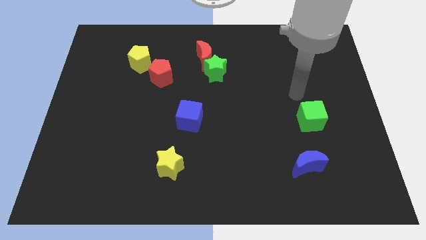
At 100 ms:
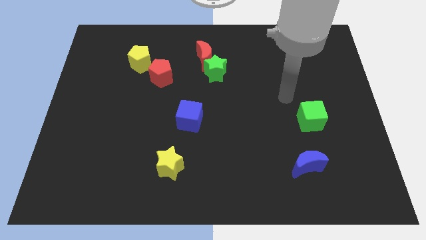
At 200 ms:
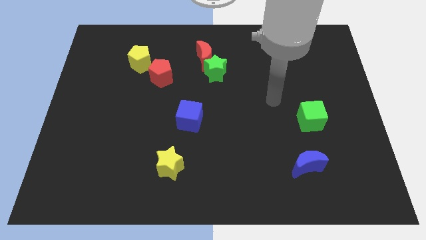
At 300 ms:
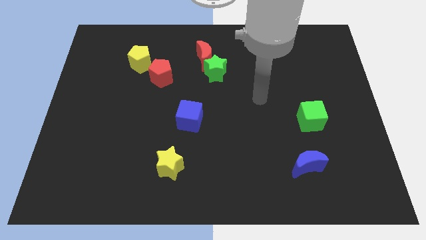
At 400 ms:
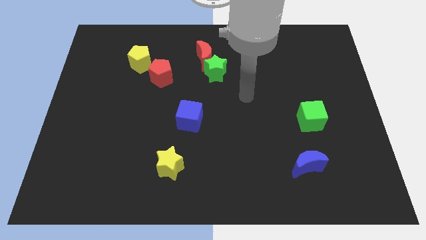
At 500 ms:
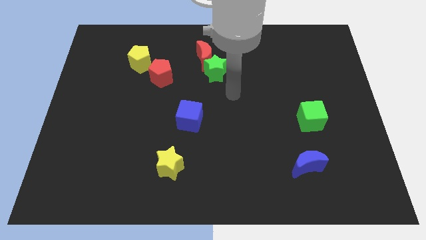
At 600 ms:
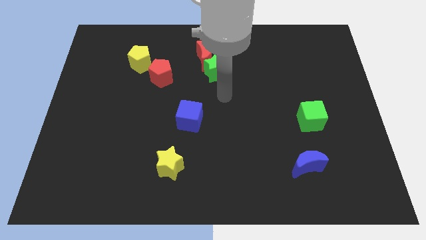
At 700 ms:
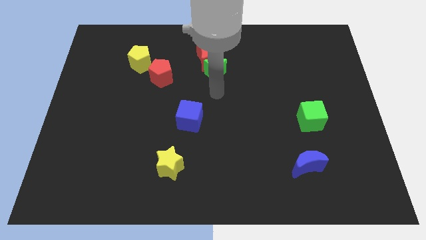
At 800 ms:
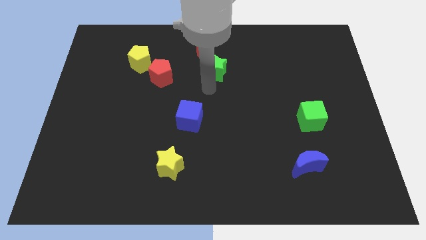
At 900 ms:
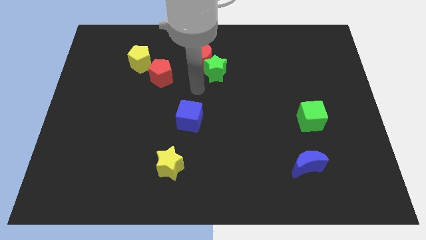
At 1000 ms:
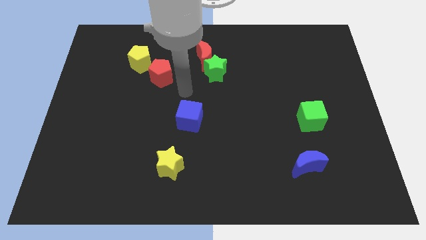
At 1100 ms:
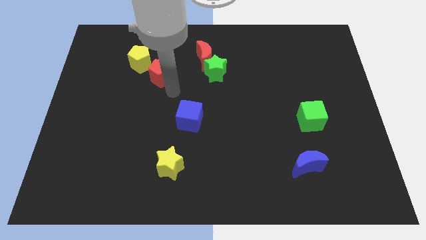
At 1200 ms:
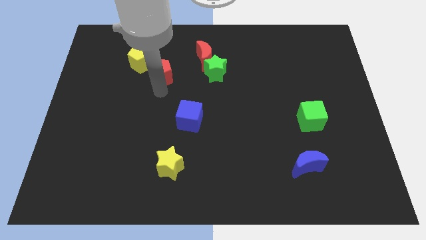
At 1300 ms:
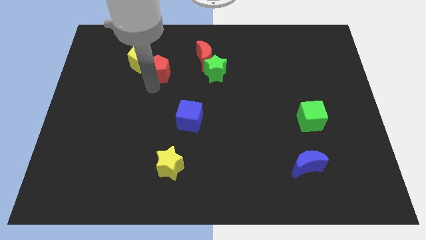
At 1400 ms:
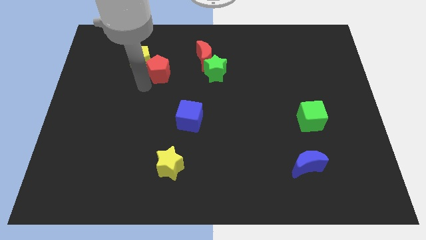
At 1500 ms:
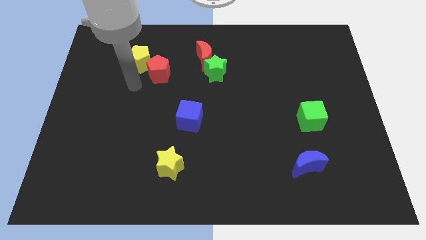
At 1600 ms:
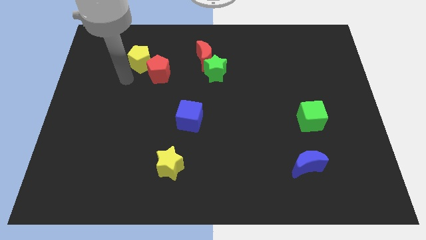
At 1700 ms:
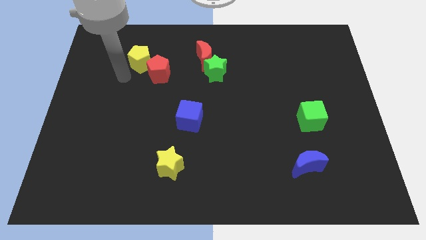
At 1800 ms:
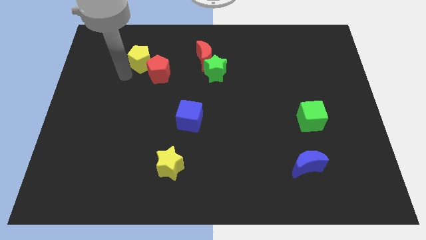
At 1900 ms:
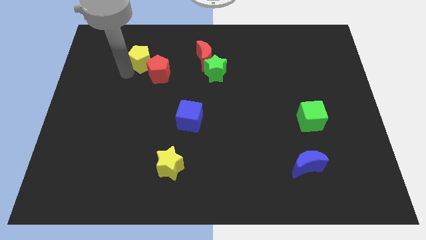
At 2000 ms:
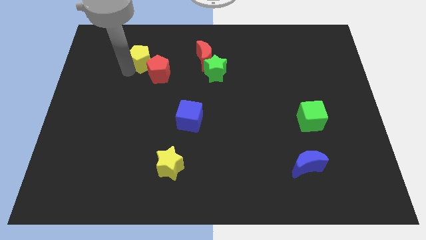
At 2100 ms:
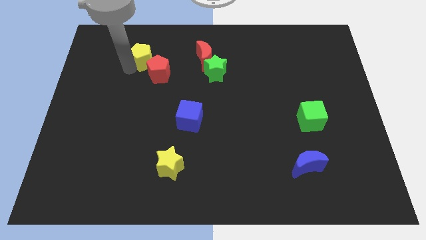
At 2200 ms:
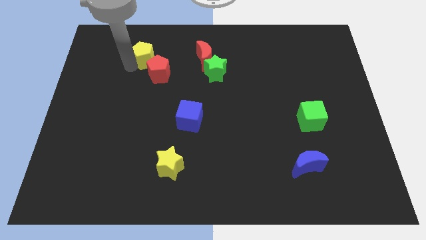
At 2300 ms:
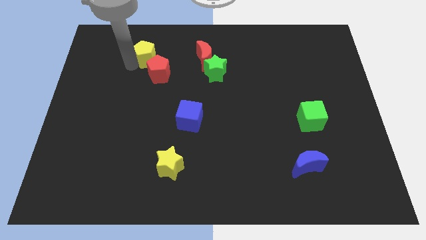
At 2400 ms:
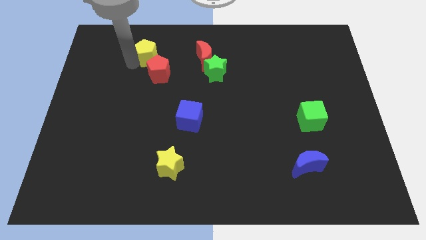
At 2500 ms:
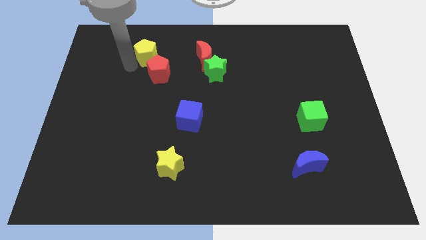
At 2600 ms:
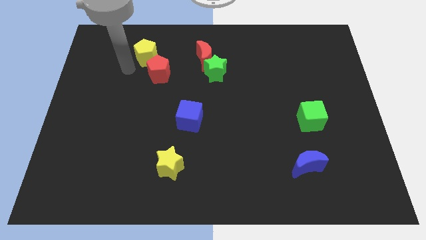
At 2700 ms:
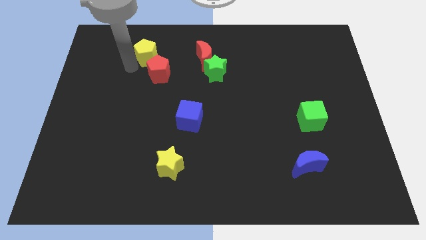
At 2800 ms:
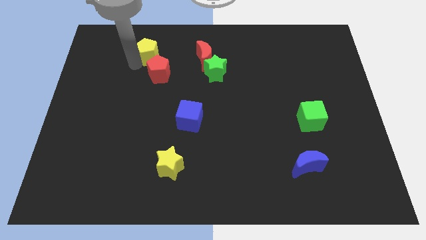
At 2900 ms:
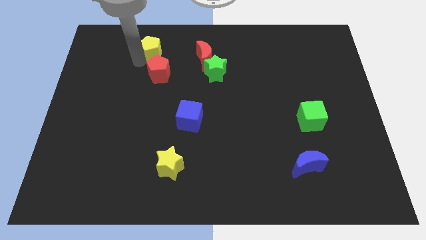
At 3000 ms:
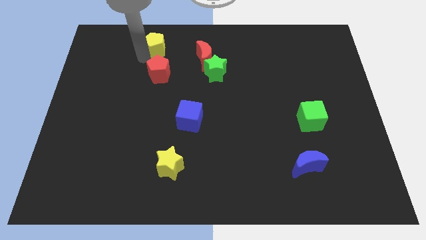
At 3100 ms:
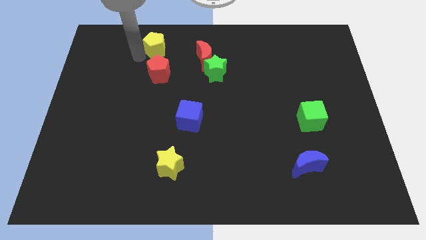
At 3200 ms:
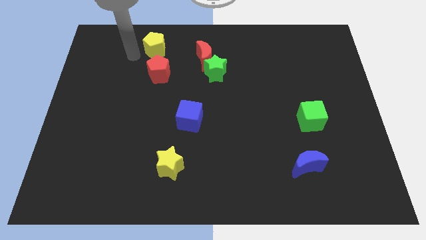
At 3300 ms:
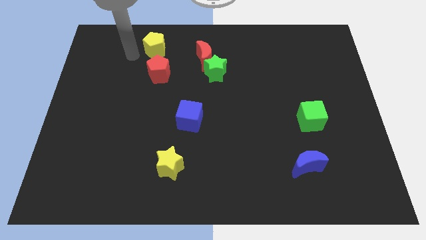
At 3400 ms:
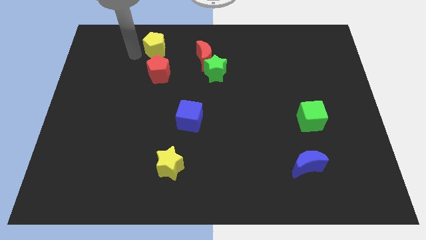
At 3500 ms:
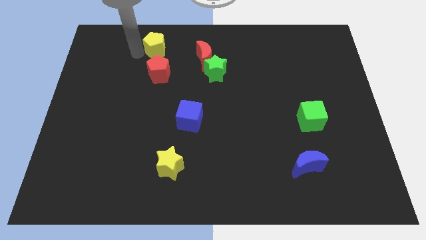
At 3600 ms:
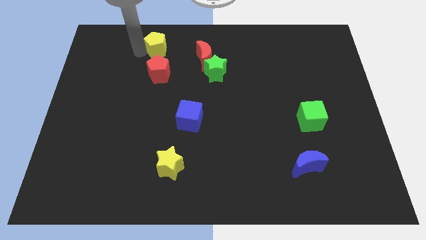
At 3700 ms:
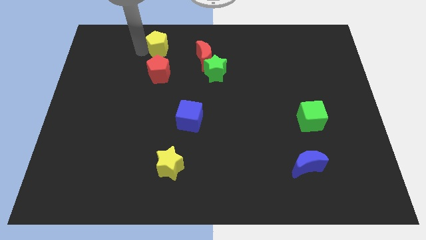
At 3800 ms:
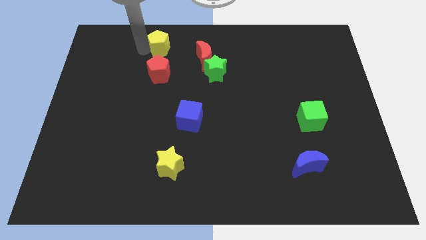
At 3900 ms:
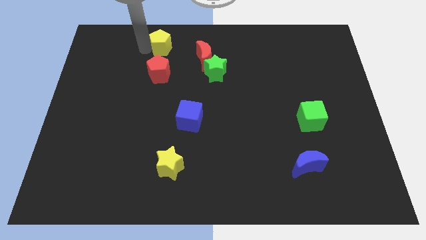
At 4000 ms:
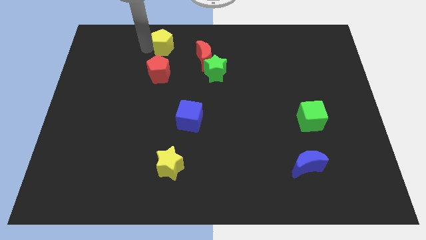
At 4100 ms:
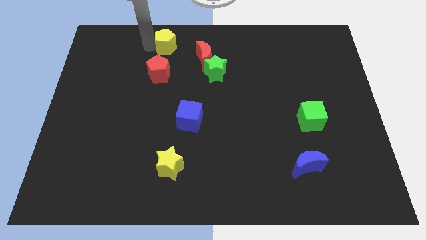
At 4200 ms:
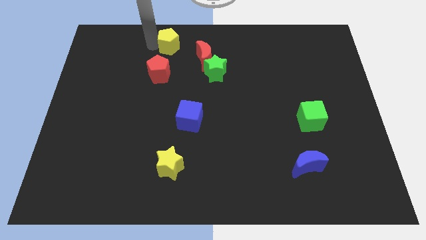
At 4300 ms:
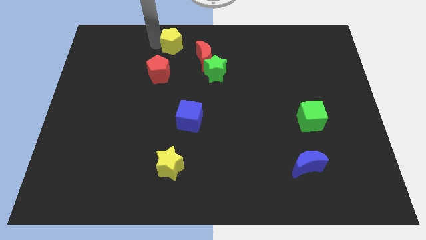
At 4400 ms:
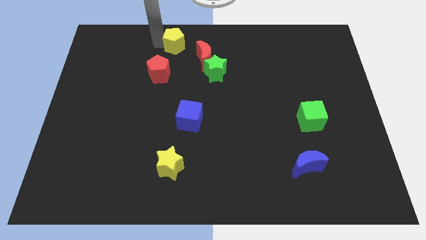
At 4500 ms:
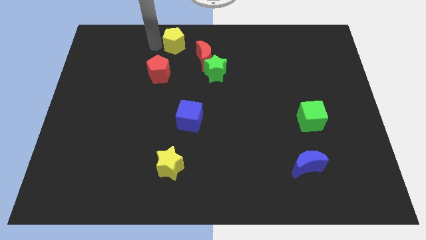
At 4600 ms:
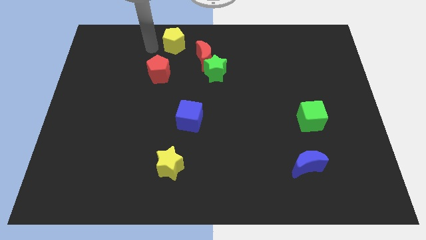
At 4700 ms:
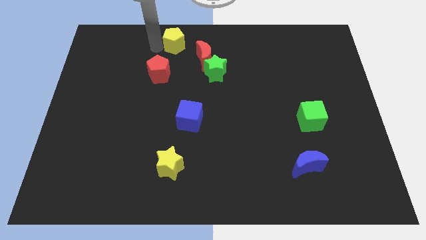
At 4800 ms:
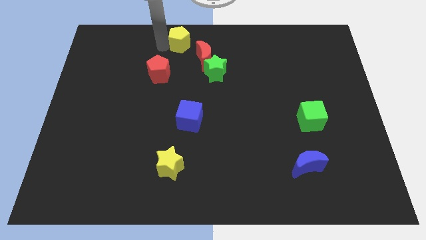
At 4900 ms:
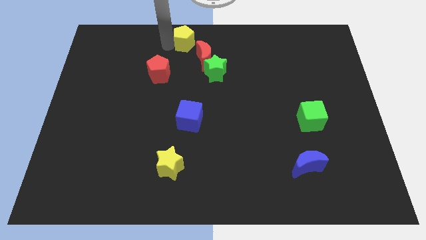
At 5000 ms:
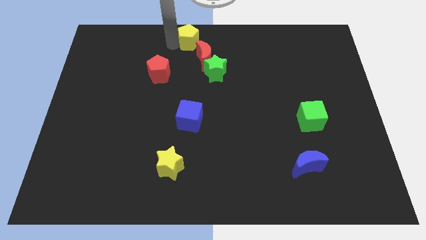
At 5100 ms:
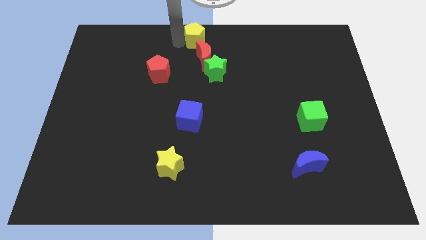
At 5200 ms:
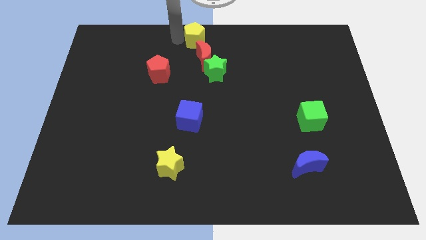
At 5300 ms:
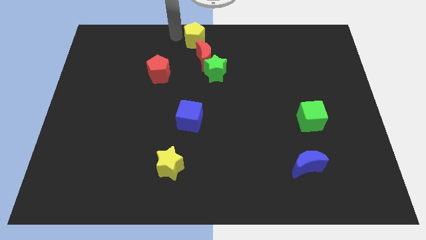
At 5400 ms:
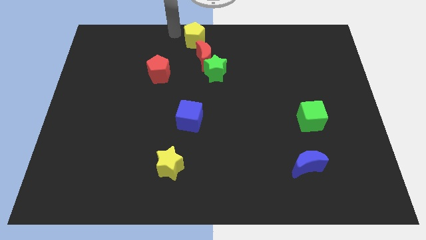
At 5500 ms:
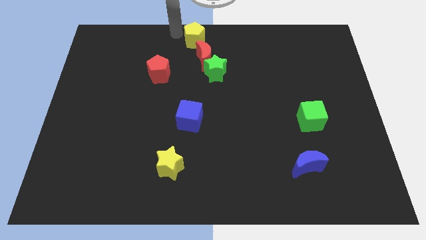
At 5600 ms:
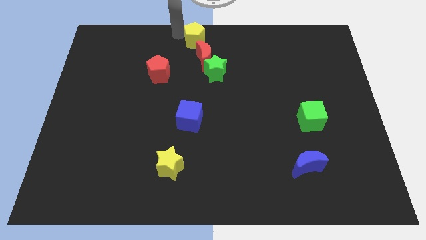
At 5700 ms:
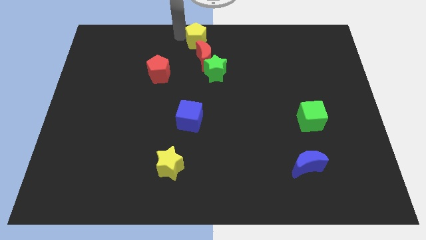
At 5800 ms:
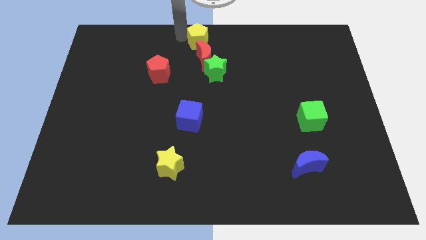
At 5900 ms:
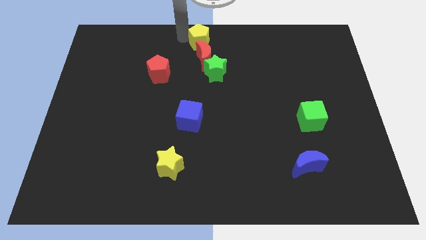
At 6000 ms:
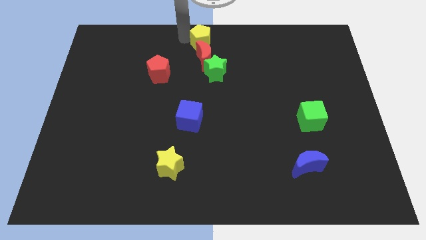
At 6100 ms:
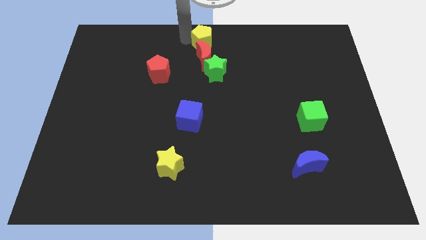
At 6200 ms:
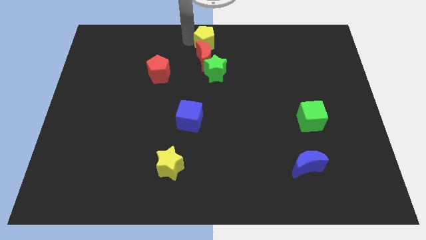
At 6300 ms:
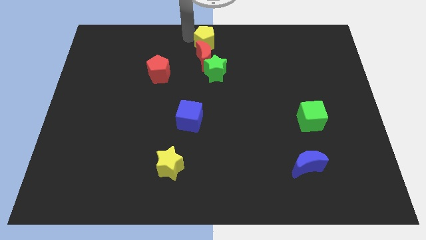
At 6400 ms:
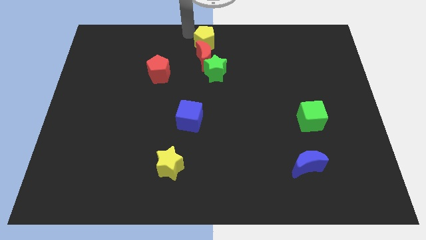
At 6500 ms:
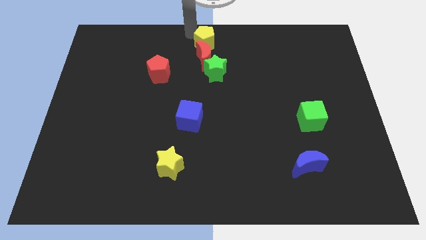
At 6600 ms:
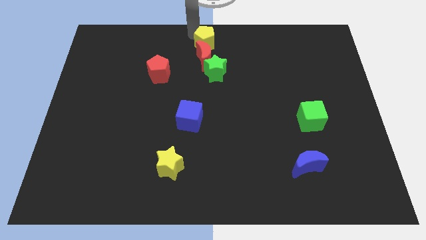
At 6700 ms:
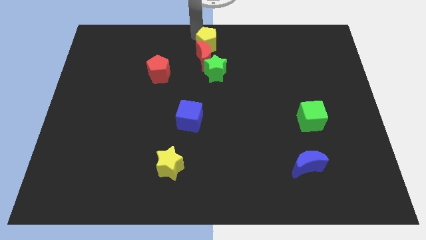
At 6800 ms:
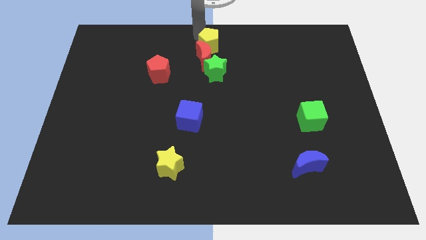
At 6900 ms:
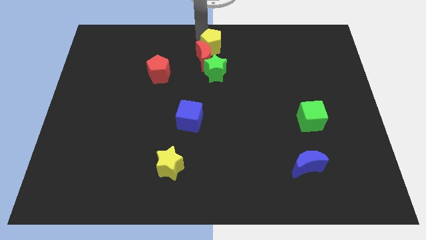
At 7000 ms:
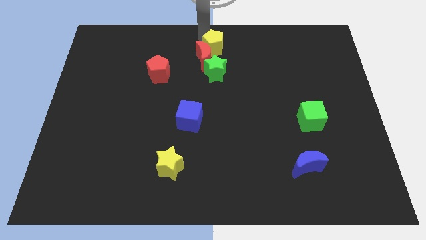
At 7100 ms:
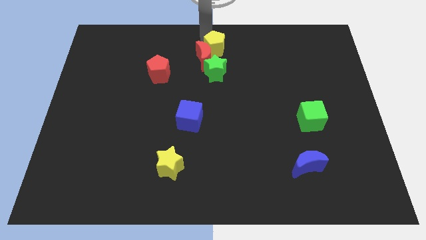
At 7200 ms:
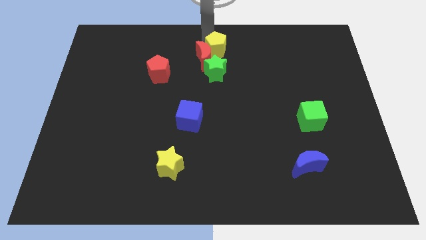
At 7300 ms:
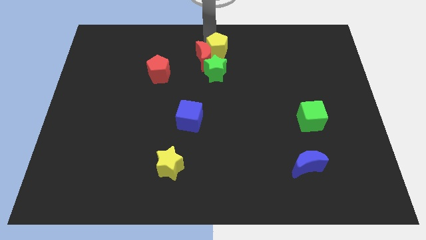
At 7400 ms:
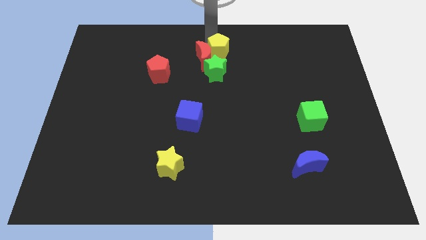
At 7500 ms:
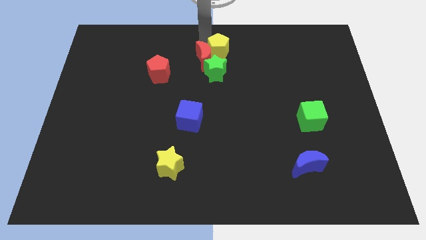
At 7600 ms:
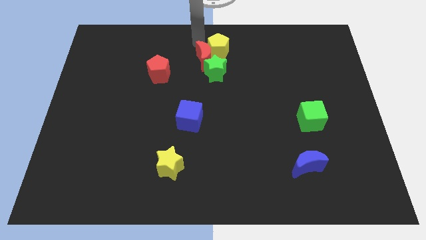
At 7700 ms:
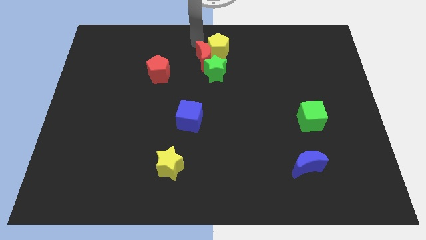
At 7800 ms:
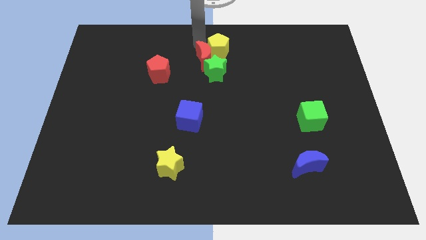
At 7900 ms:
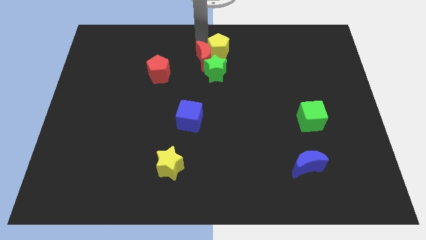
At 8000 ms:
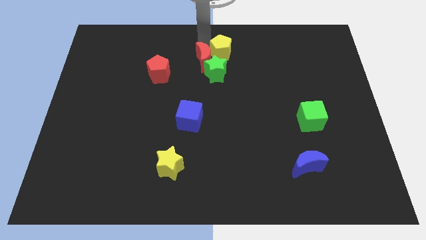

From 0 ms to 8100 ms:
slide the yellow pentagon to the right

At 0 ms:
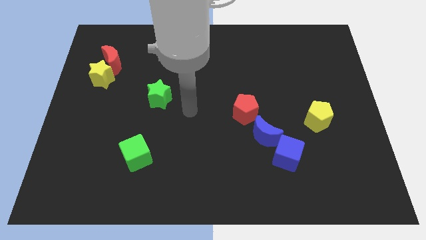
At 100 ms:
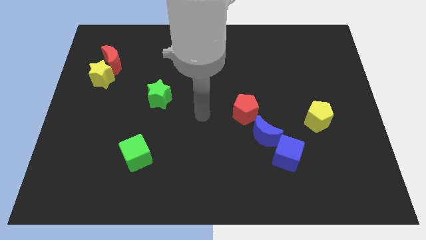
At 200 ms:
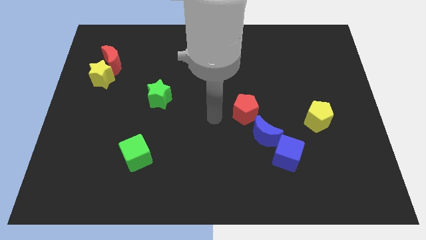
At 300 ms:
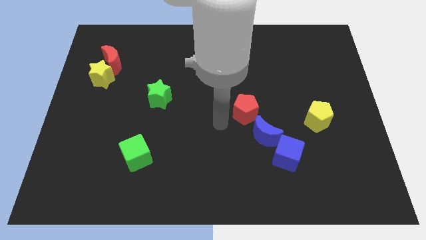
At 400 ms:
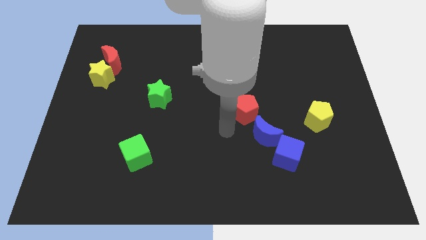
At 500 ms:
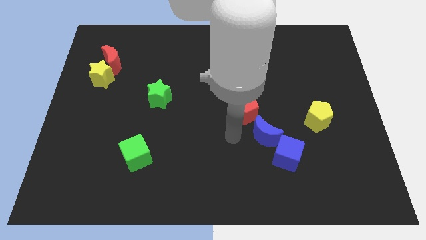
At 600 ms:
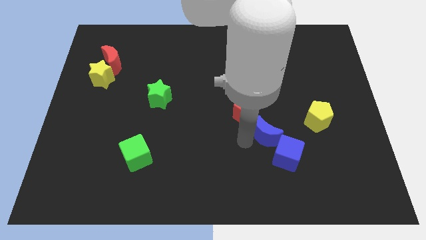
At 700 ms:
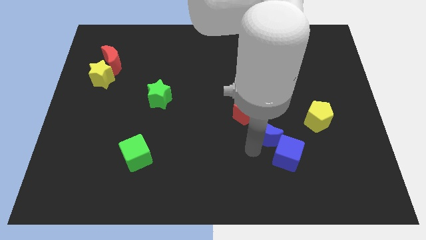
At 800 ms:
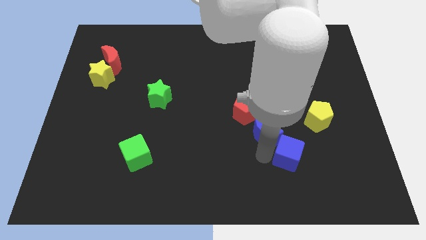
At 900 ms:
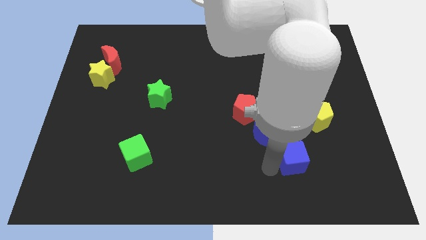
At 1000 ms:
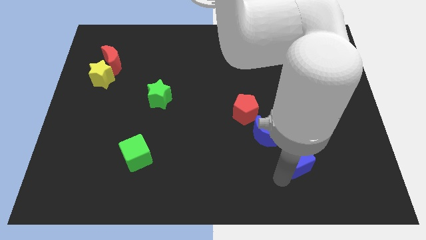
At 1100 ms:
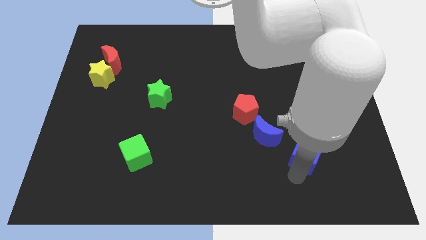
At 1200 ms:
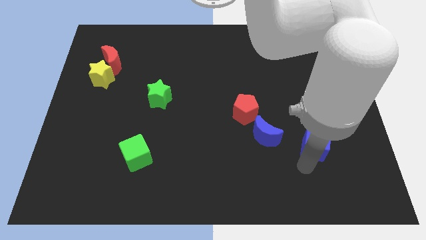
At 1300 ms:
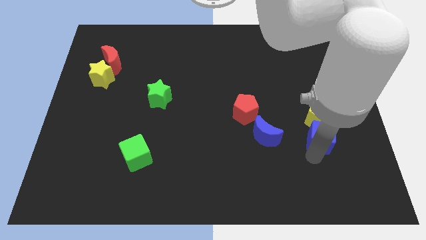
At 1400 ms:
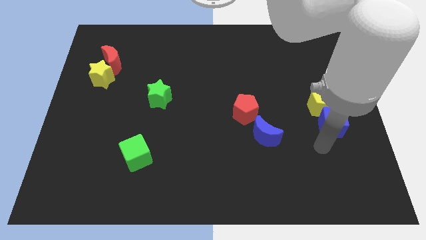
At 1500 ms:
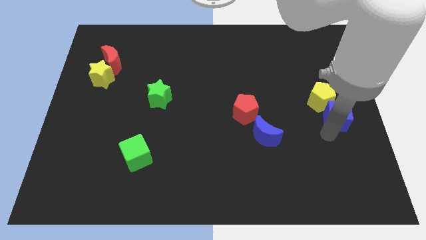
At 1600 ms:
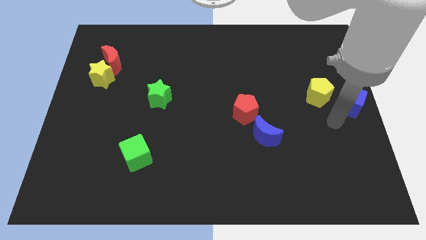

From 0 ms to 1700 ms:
slide the yellow pentagon up slightly
